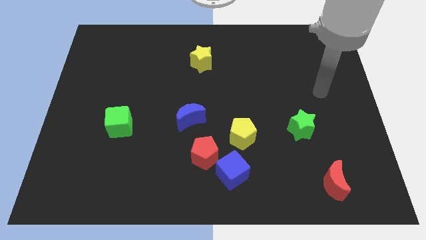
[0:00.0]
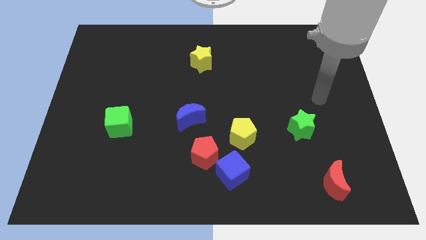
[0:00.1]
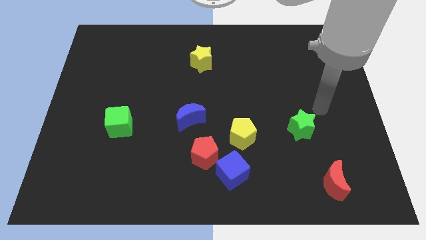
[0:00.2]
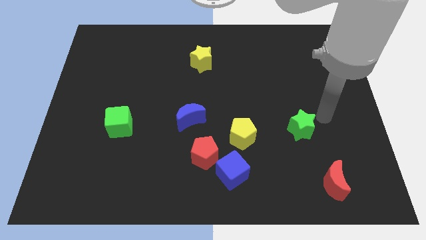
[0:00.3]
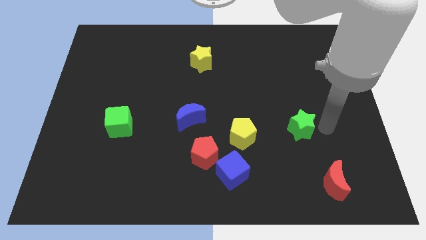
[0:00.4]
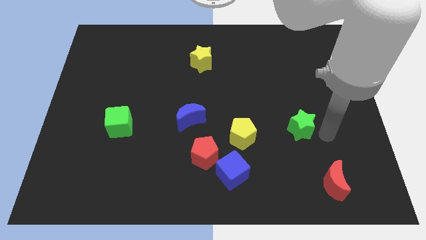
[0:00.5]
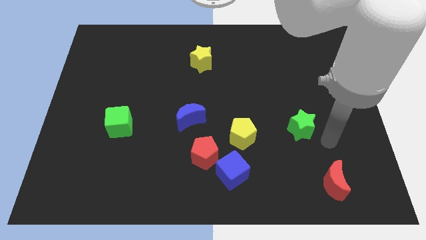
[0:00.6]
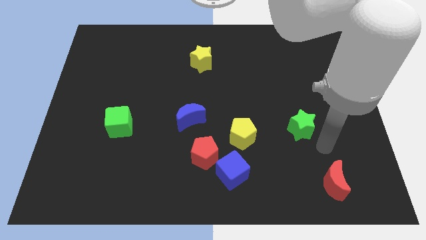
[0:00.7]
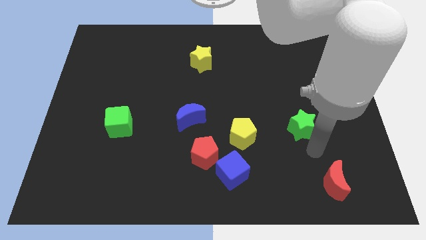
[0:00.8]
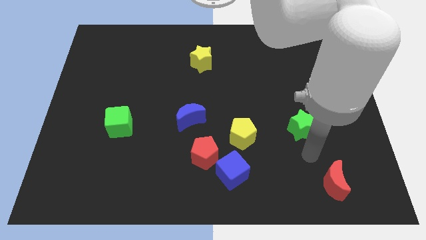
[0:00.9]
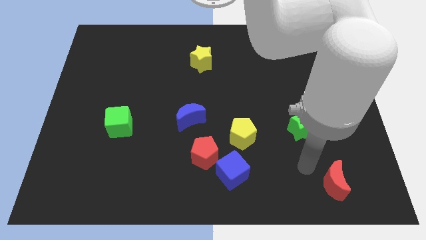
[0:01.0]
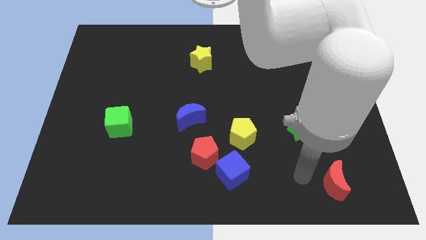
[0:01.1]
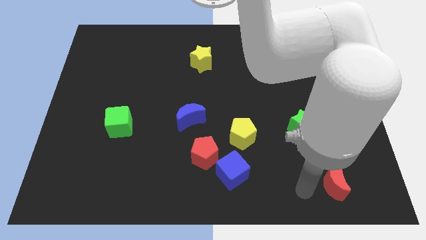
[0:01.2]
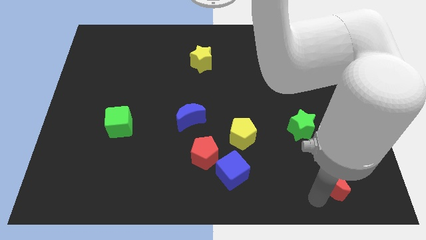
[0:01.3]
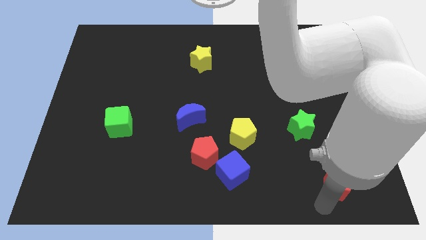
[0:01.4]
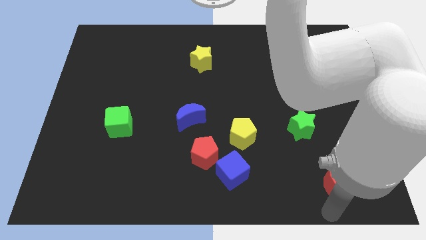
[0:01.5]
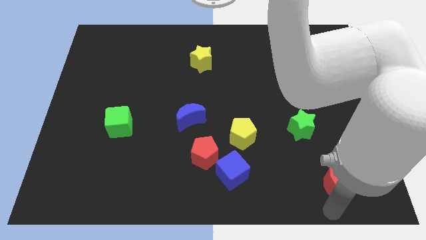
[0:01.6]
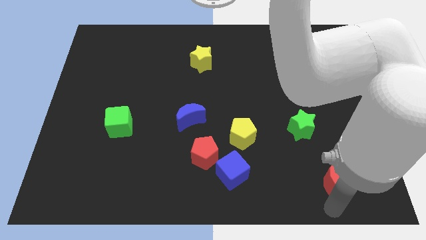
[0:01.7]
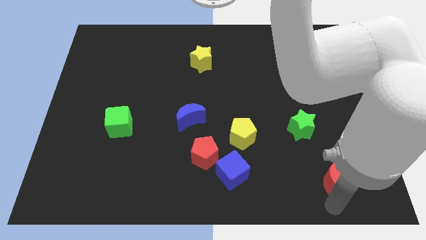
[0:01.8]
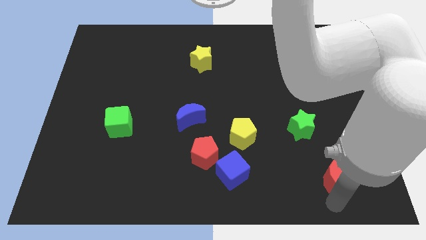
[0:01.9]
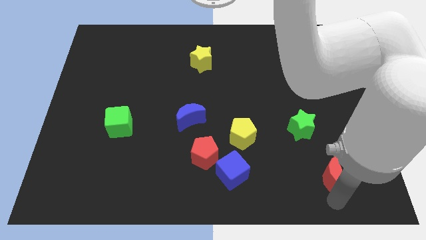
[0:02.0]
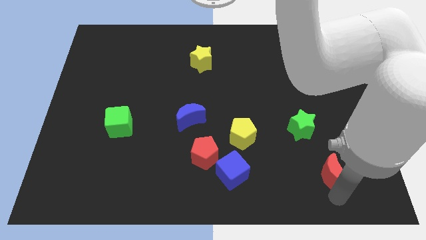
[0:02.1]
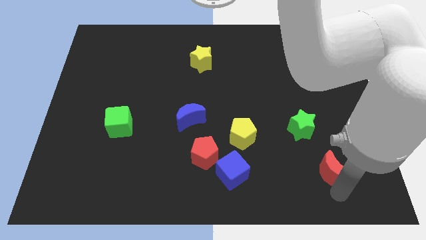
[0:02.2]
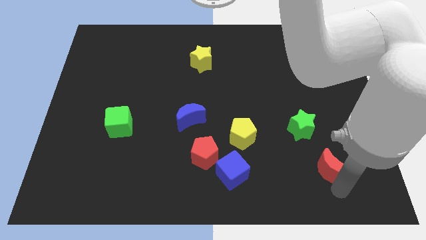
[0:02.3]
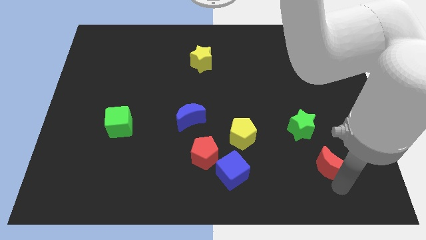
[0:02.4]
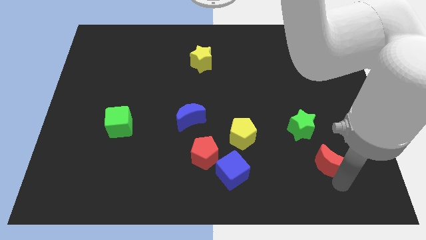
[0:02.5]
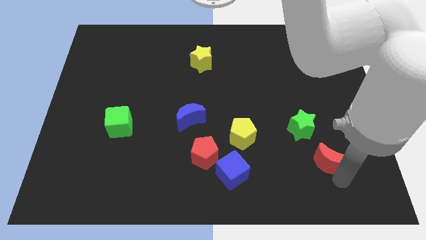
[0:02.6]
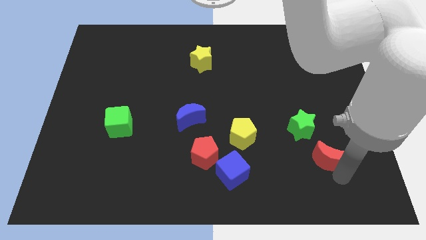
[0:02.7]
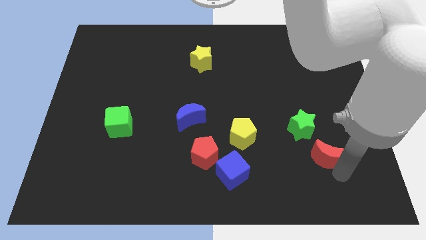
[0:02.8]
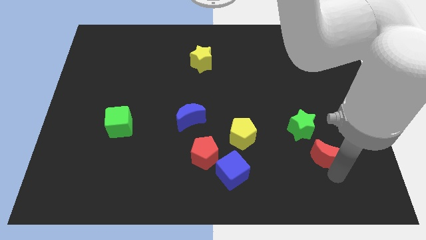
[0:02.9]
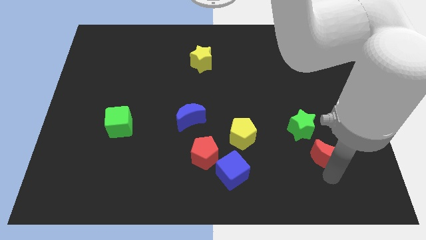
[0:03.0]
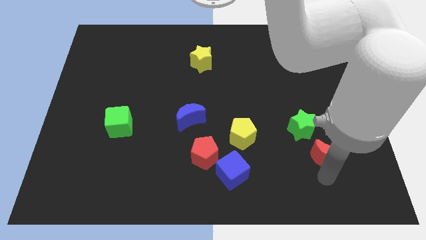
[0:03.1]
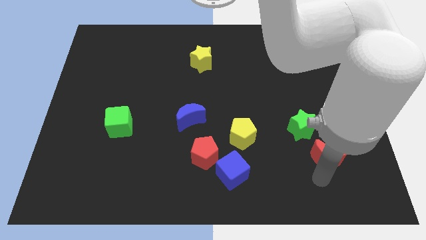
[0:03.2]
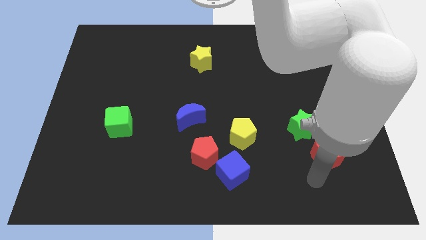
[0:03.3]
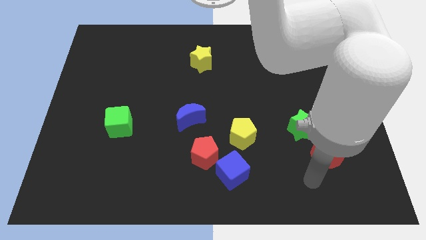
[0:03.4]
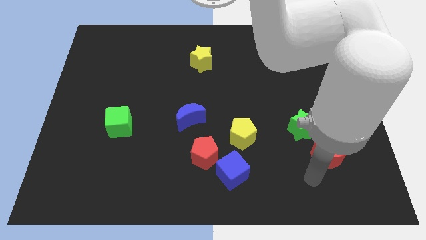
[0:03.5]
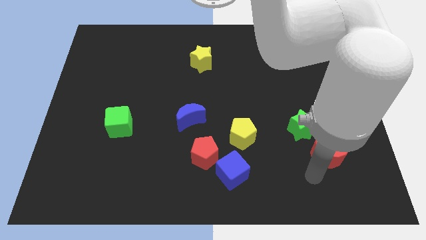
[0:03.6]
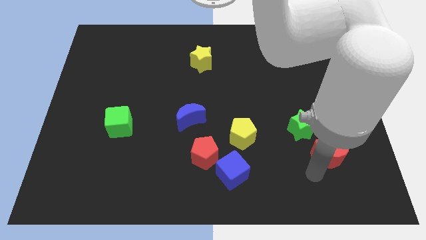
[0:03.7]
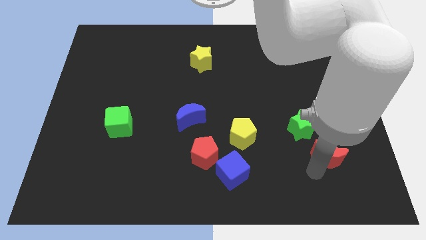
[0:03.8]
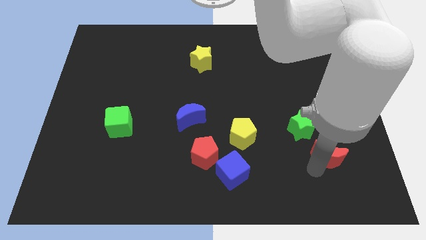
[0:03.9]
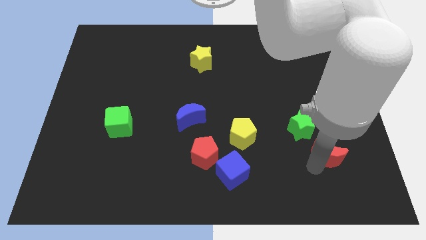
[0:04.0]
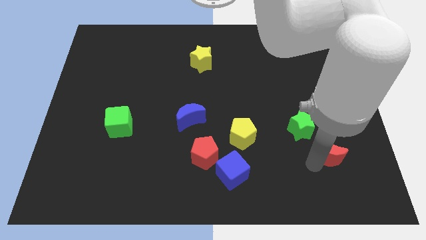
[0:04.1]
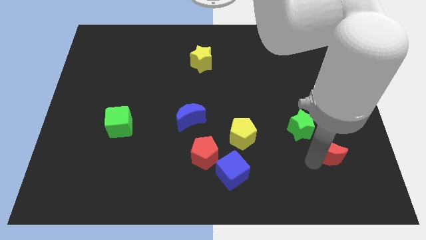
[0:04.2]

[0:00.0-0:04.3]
slightly move the red moon up

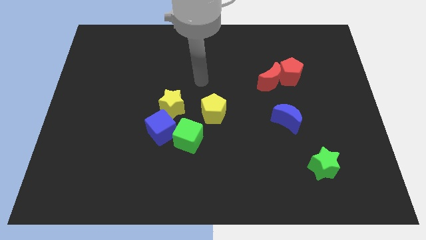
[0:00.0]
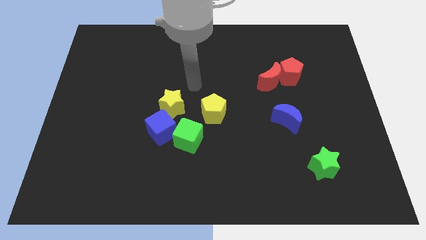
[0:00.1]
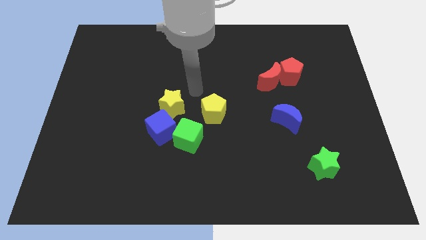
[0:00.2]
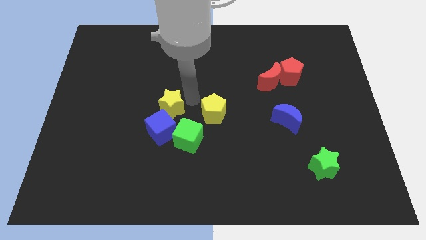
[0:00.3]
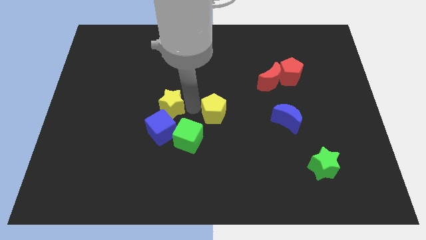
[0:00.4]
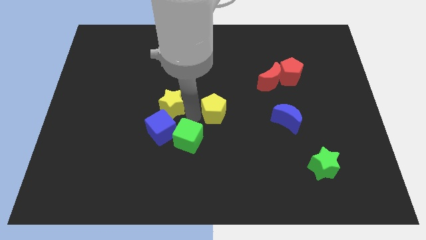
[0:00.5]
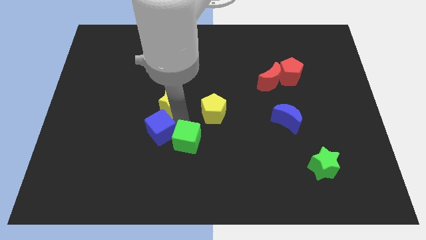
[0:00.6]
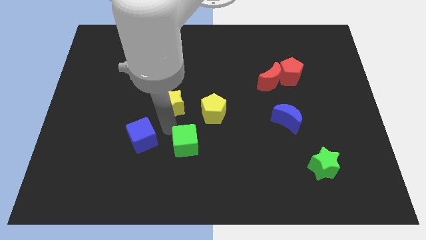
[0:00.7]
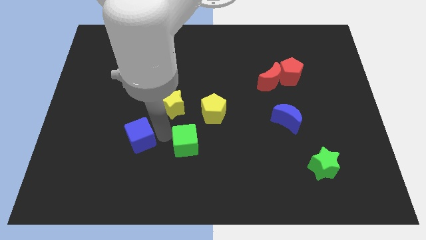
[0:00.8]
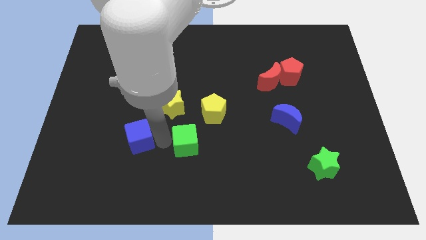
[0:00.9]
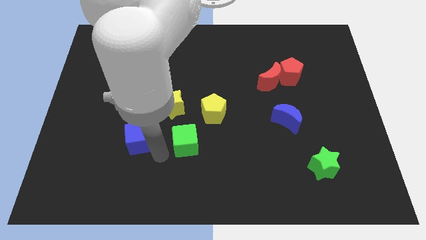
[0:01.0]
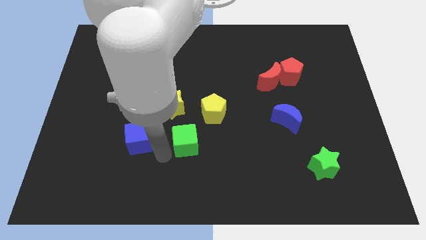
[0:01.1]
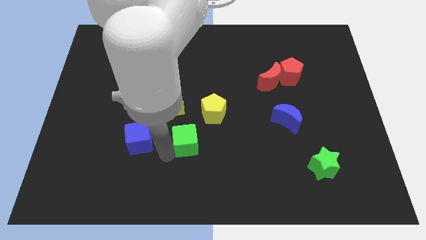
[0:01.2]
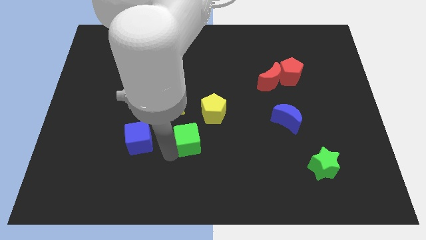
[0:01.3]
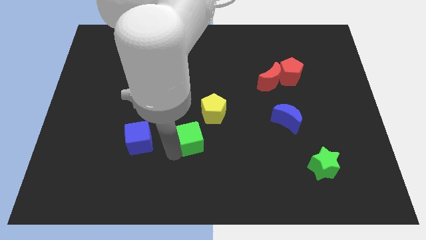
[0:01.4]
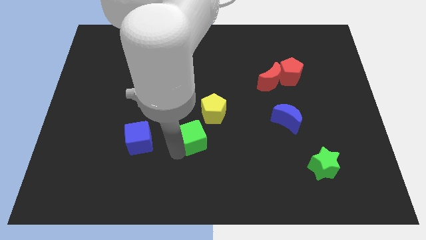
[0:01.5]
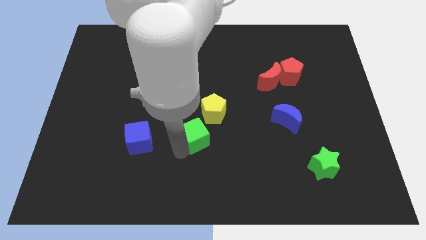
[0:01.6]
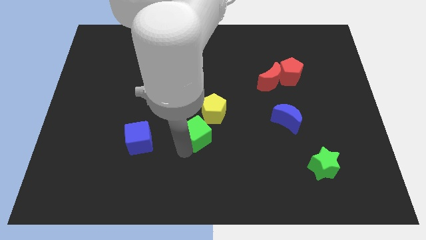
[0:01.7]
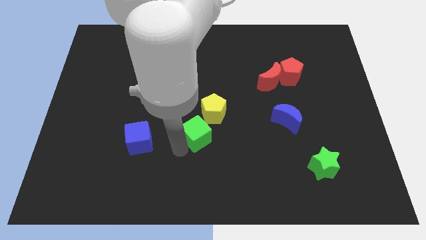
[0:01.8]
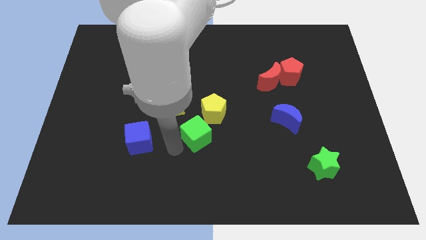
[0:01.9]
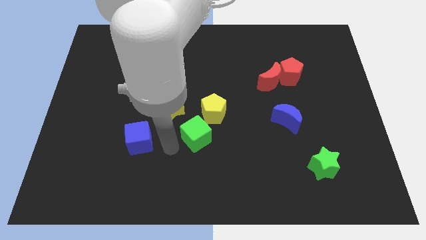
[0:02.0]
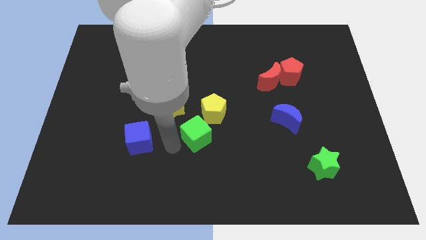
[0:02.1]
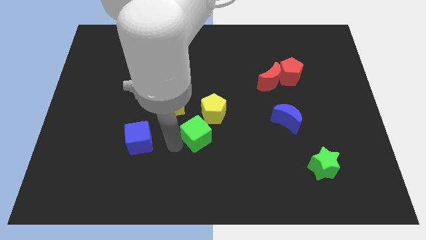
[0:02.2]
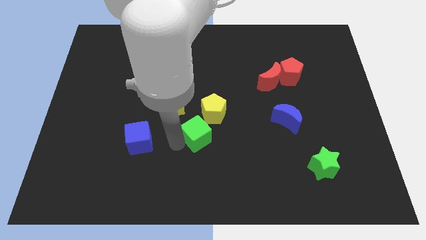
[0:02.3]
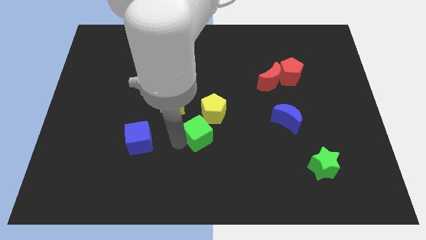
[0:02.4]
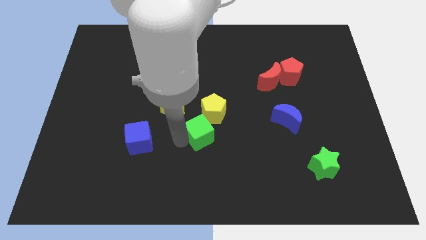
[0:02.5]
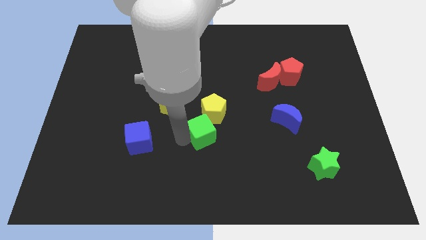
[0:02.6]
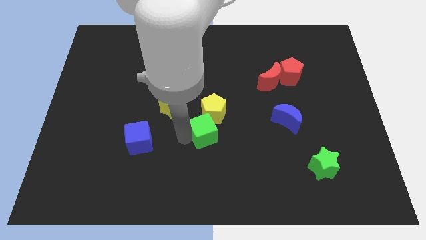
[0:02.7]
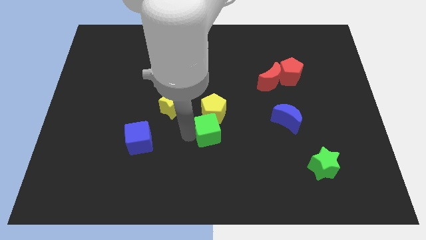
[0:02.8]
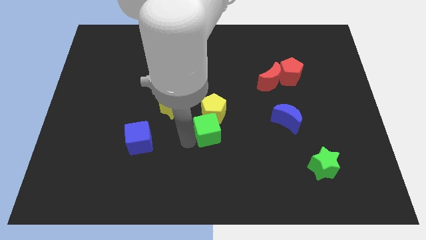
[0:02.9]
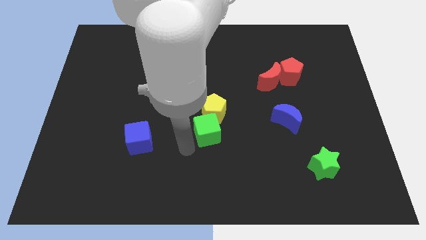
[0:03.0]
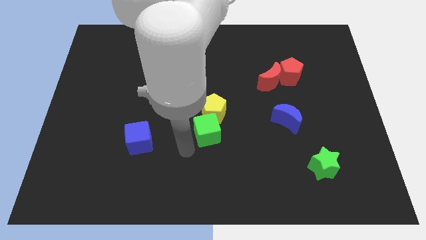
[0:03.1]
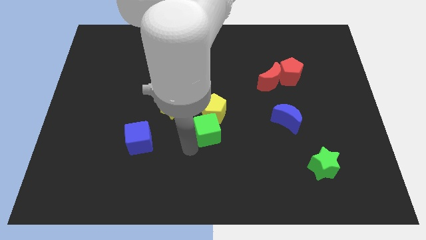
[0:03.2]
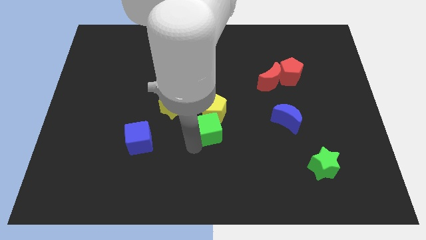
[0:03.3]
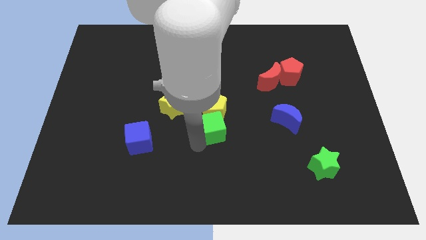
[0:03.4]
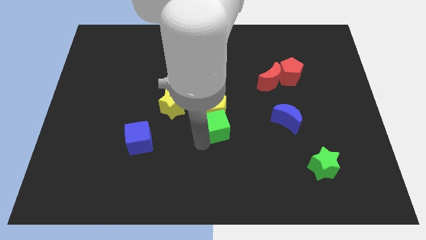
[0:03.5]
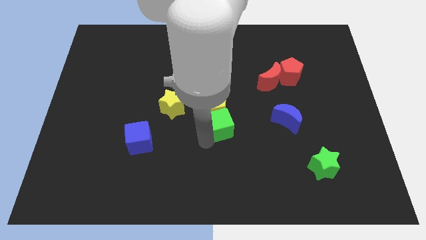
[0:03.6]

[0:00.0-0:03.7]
push the green cube a bit up and to the right

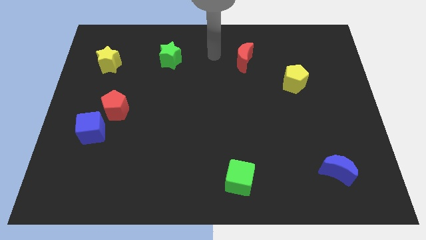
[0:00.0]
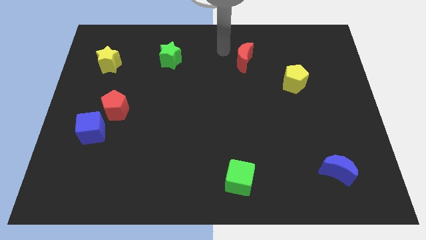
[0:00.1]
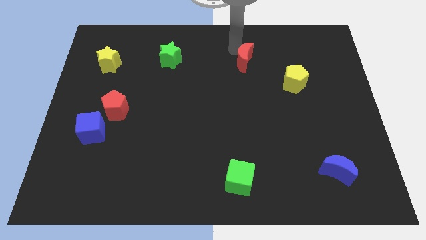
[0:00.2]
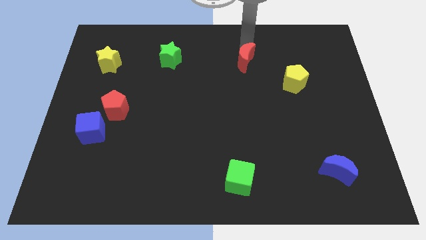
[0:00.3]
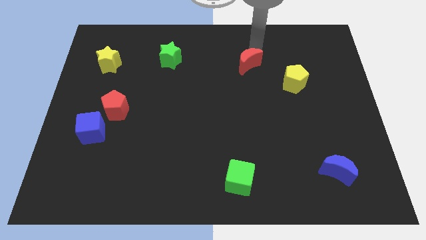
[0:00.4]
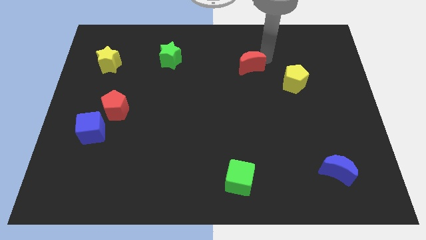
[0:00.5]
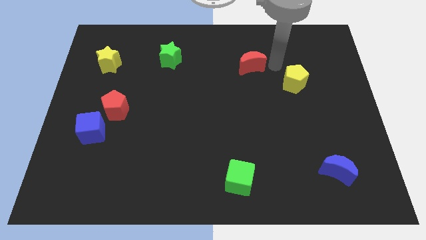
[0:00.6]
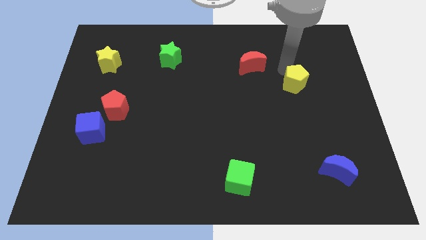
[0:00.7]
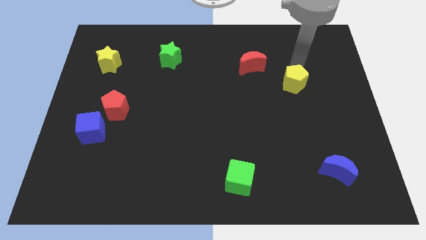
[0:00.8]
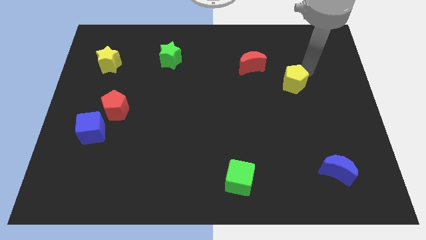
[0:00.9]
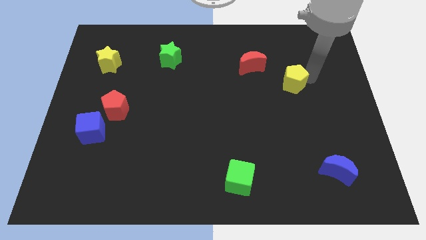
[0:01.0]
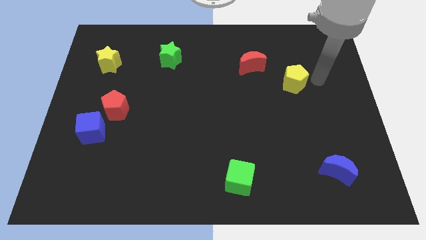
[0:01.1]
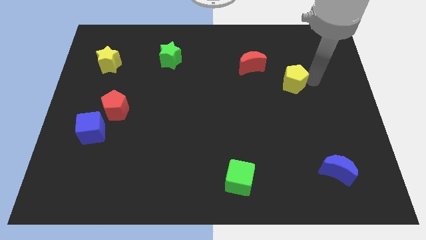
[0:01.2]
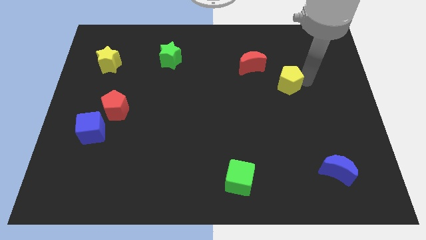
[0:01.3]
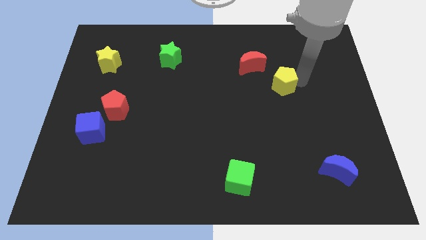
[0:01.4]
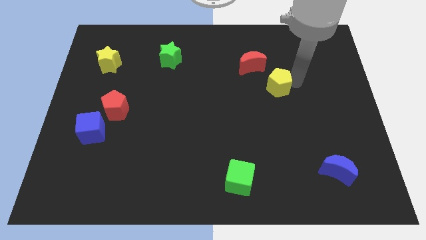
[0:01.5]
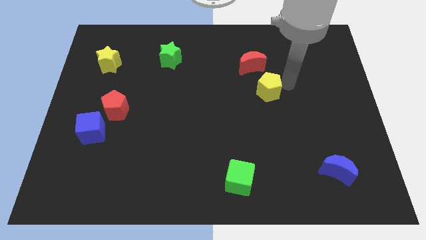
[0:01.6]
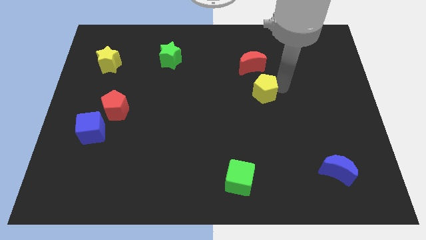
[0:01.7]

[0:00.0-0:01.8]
slightly push the yellow pentagon left
